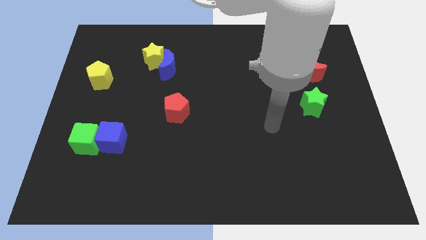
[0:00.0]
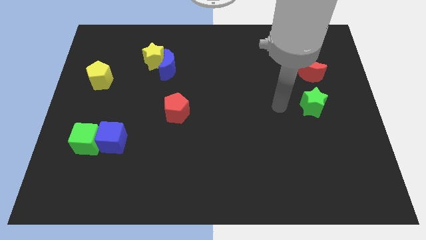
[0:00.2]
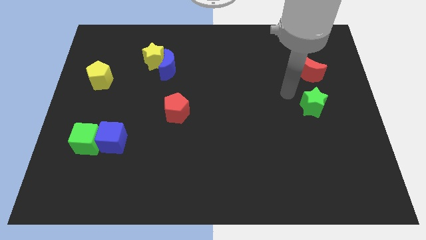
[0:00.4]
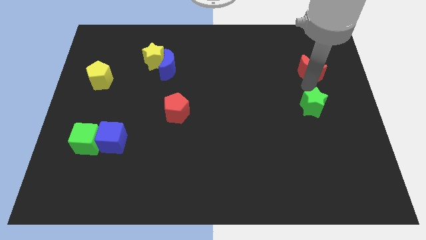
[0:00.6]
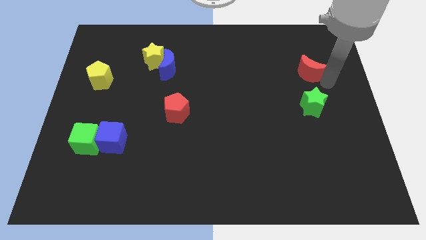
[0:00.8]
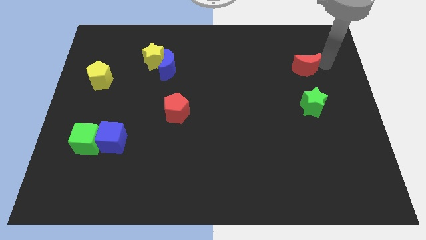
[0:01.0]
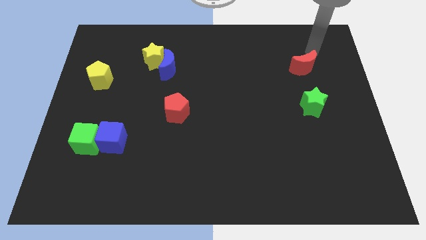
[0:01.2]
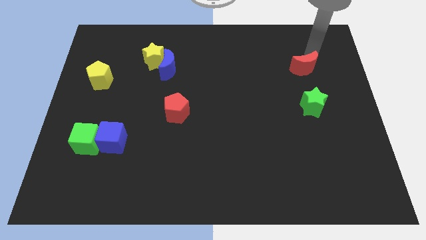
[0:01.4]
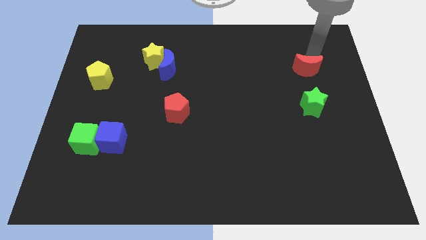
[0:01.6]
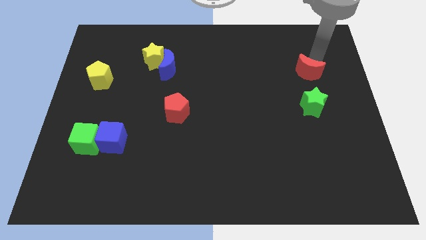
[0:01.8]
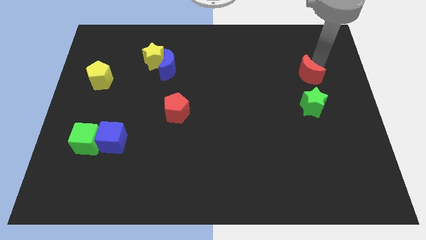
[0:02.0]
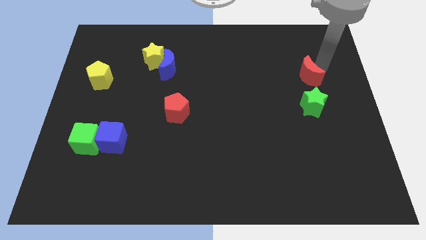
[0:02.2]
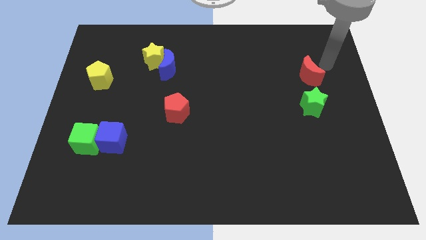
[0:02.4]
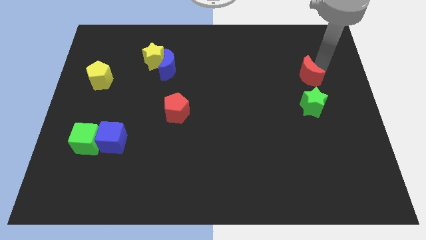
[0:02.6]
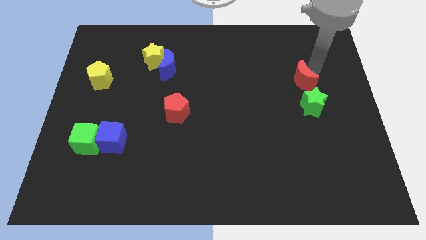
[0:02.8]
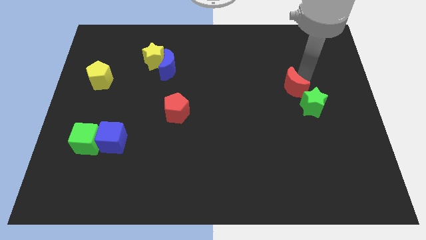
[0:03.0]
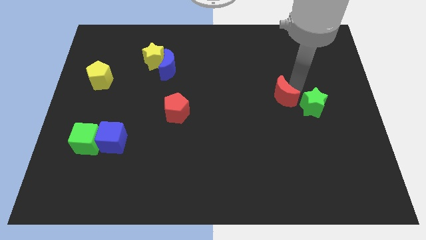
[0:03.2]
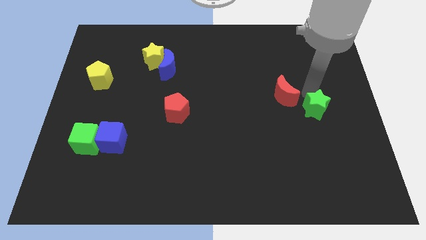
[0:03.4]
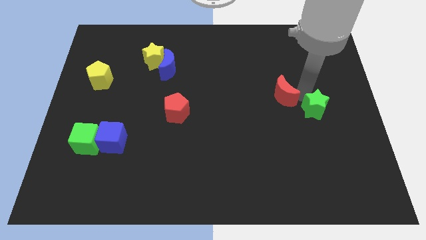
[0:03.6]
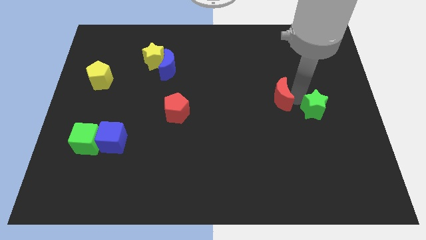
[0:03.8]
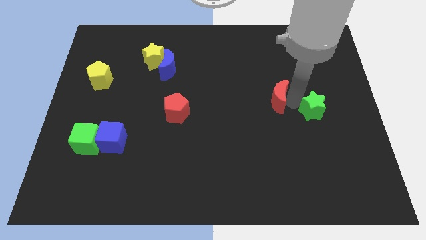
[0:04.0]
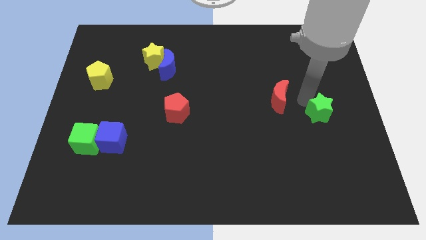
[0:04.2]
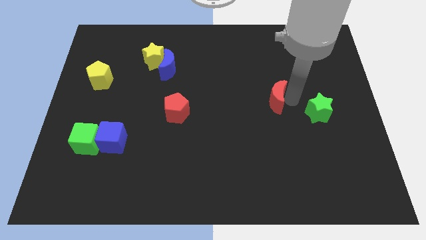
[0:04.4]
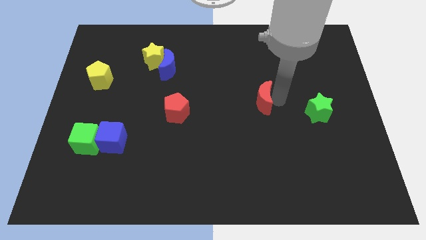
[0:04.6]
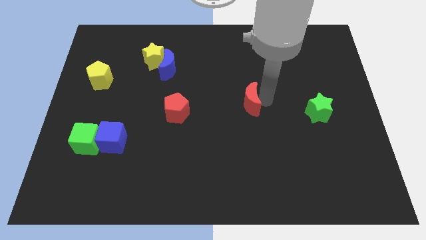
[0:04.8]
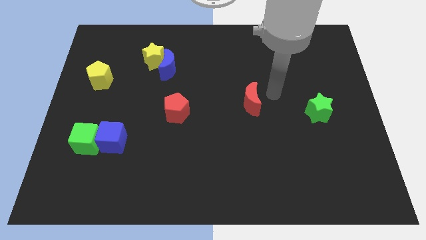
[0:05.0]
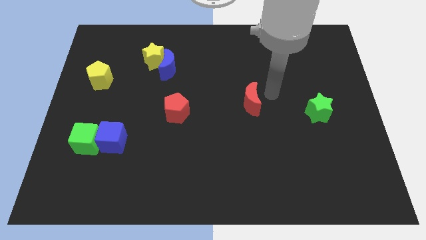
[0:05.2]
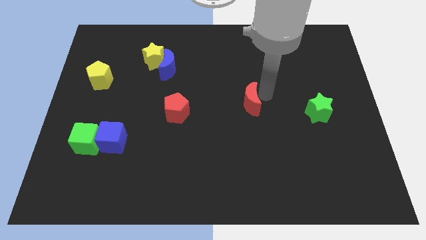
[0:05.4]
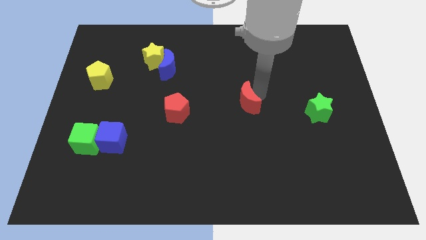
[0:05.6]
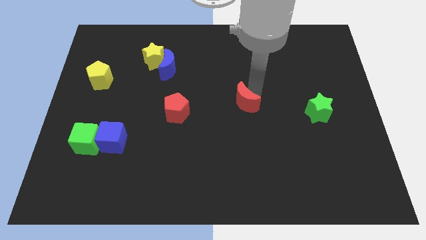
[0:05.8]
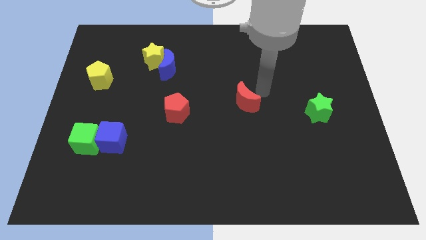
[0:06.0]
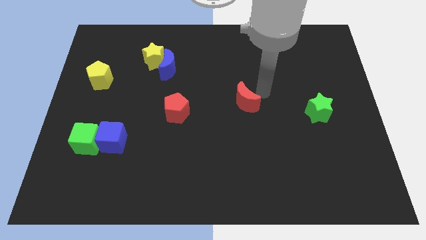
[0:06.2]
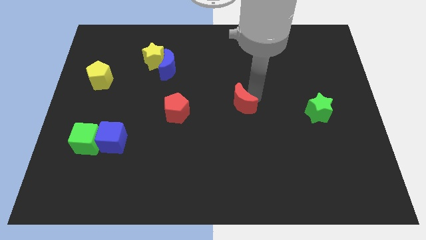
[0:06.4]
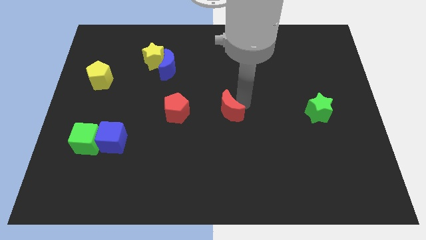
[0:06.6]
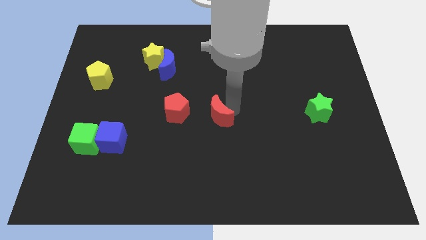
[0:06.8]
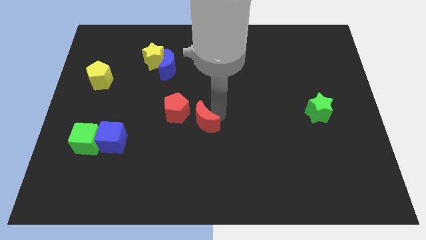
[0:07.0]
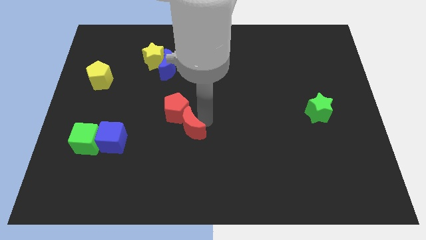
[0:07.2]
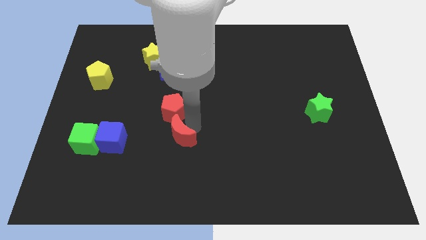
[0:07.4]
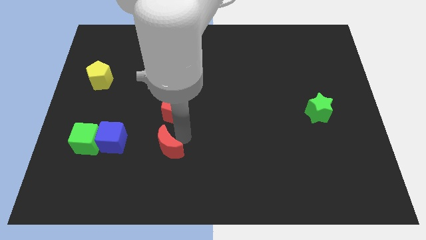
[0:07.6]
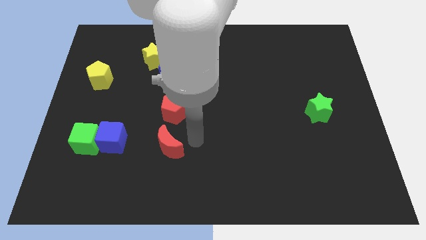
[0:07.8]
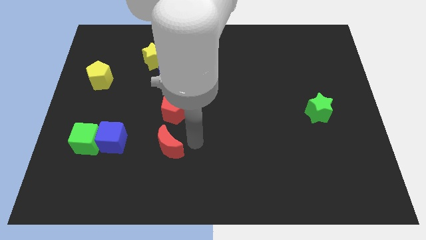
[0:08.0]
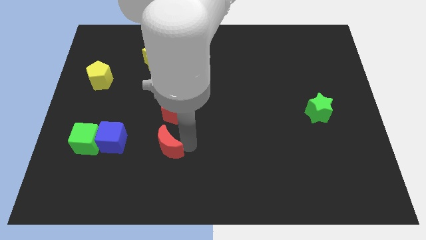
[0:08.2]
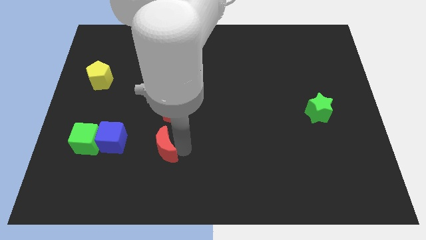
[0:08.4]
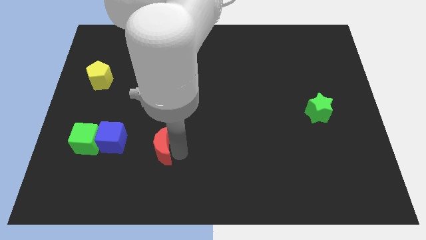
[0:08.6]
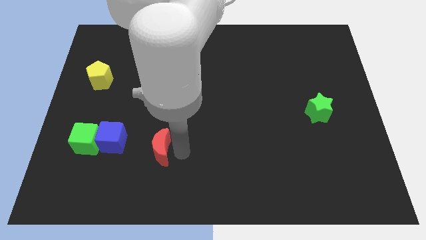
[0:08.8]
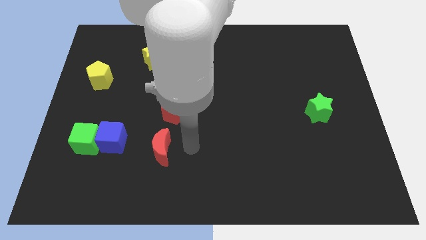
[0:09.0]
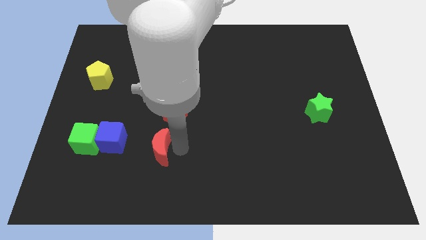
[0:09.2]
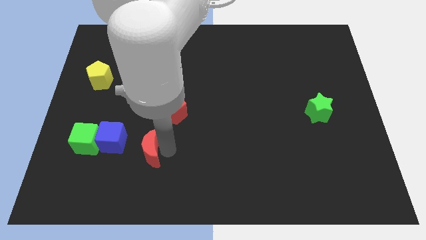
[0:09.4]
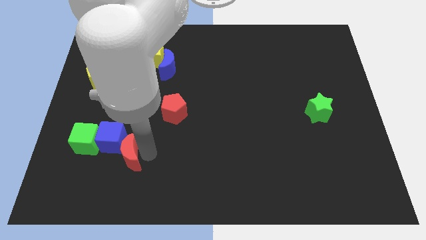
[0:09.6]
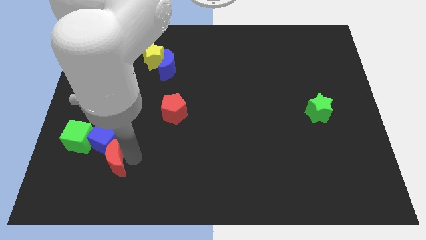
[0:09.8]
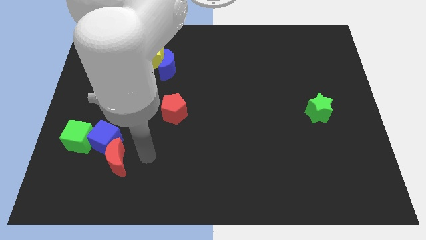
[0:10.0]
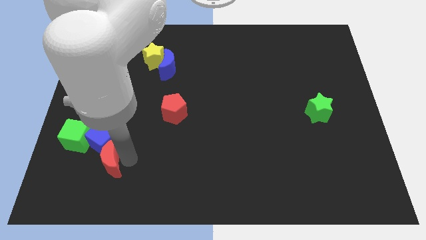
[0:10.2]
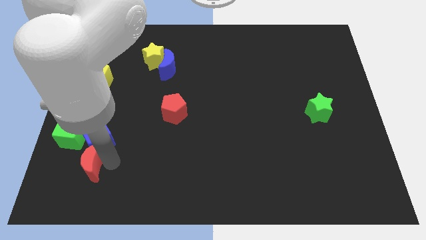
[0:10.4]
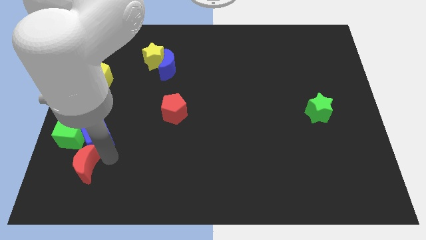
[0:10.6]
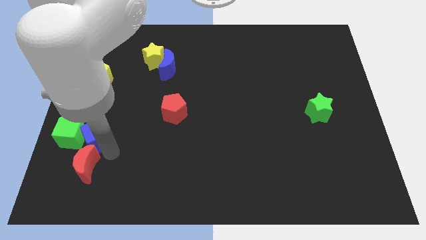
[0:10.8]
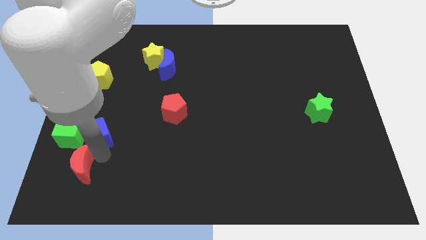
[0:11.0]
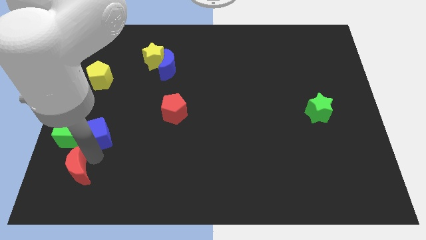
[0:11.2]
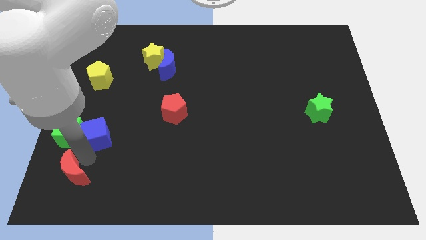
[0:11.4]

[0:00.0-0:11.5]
put the red moon to the lower left corner

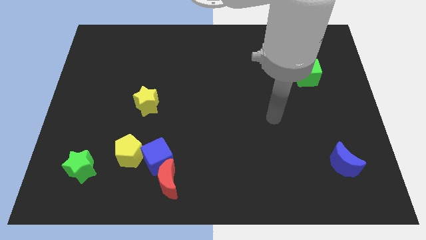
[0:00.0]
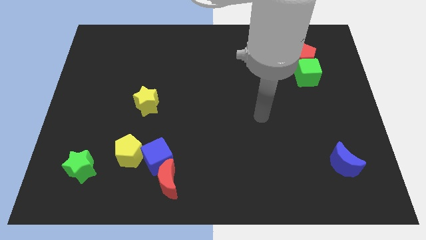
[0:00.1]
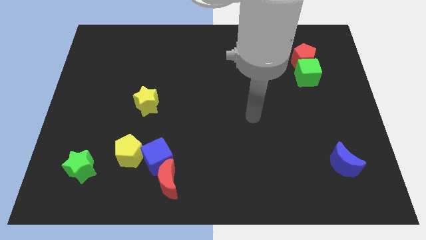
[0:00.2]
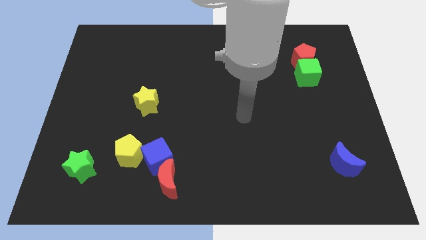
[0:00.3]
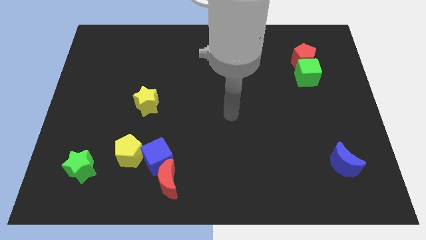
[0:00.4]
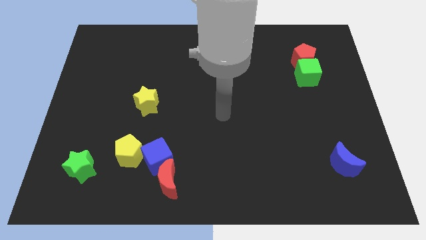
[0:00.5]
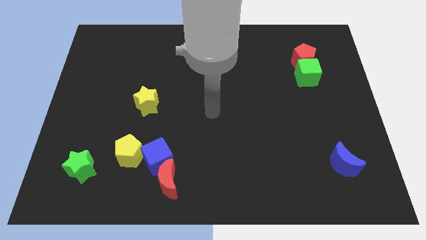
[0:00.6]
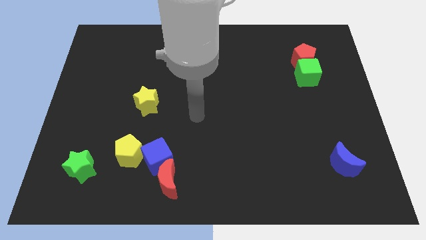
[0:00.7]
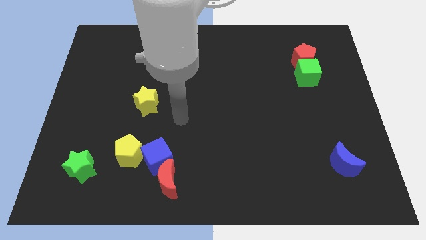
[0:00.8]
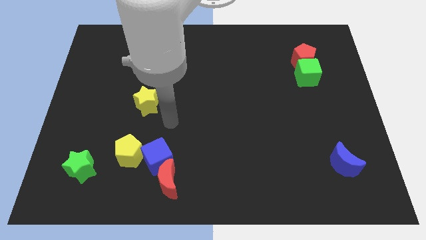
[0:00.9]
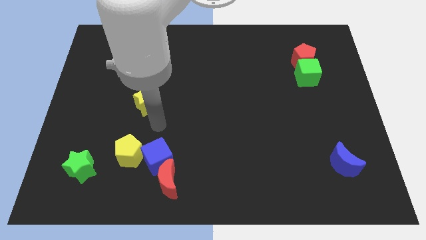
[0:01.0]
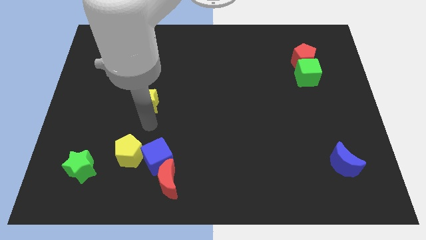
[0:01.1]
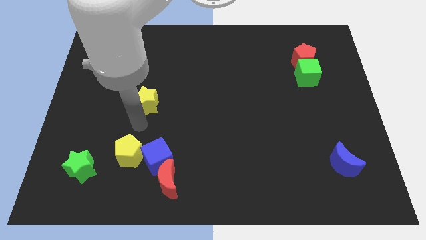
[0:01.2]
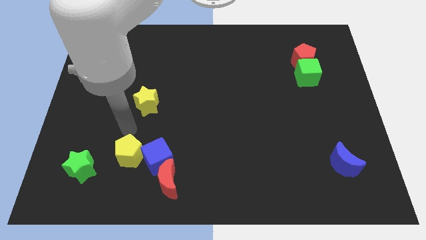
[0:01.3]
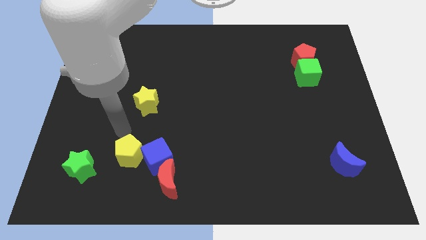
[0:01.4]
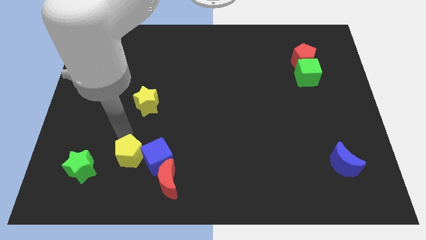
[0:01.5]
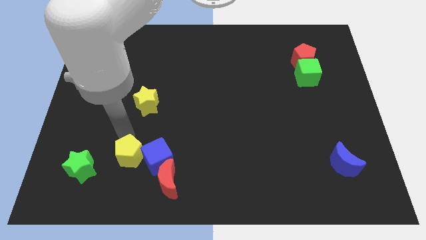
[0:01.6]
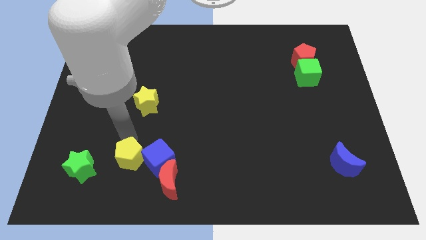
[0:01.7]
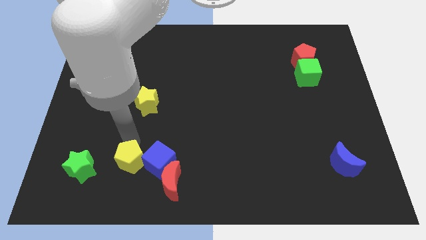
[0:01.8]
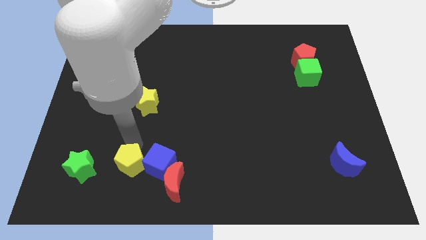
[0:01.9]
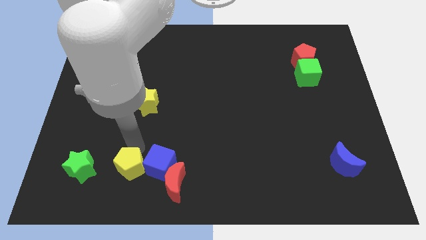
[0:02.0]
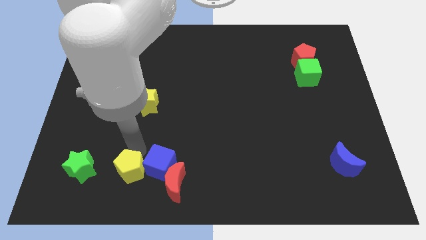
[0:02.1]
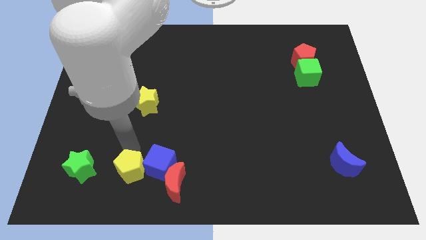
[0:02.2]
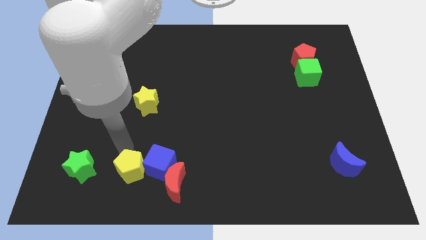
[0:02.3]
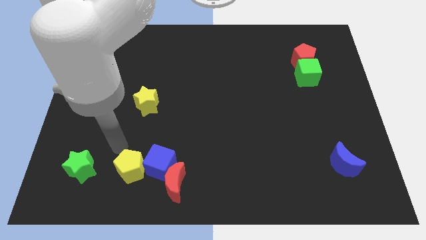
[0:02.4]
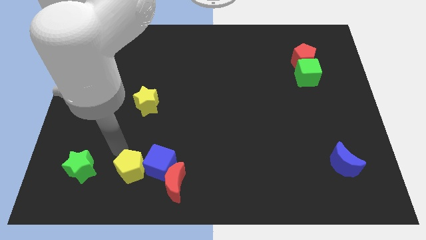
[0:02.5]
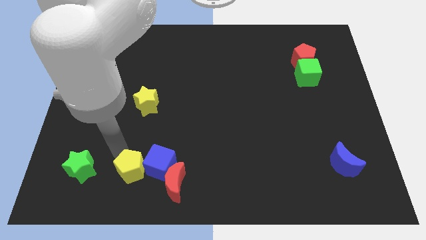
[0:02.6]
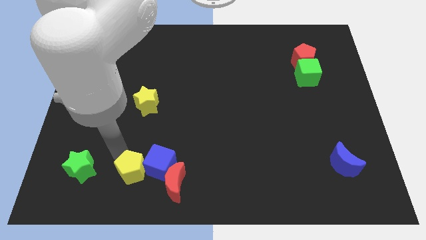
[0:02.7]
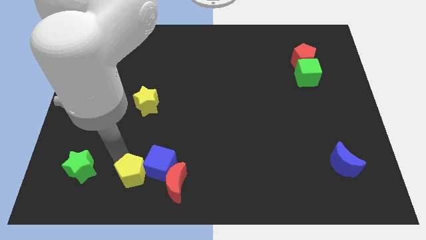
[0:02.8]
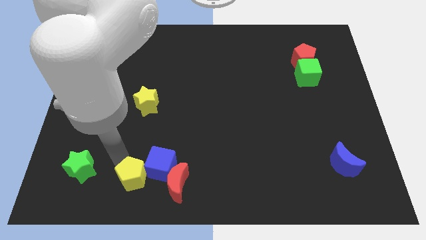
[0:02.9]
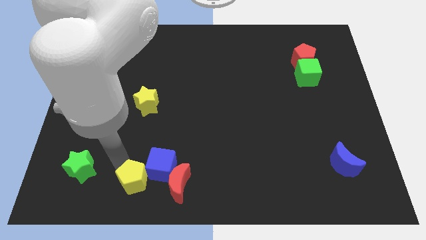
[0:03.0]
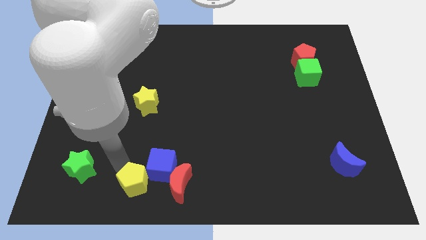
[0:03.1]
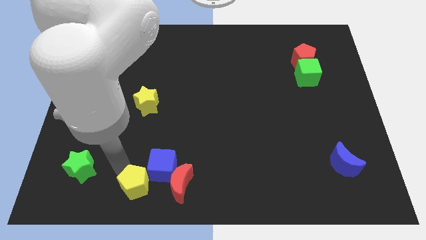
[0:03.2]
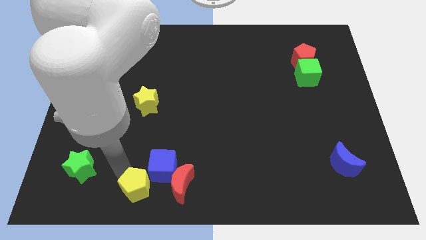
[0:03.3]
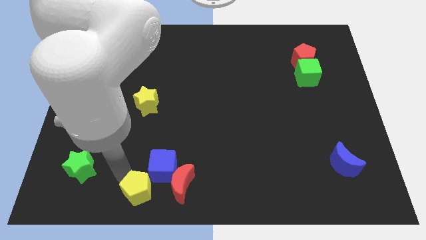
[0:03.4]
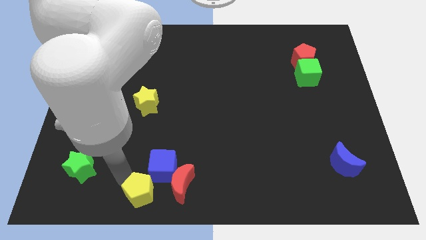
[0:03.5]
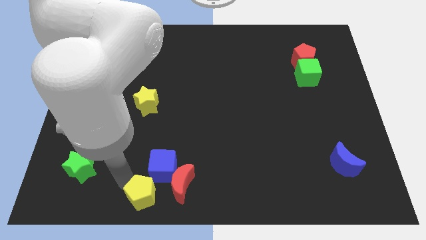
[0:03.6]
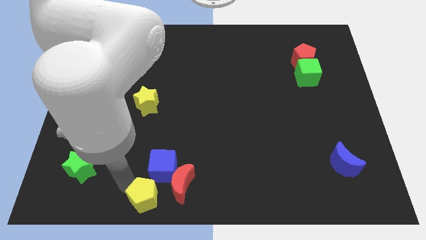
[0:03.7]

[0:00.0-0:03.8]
move the yellow pentagon to the bottom
